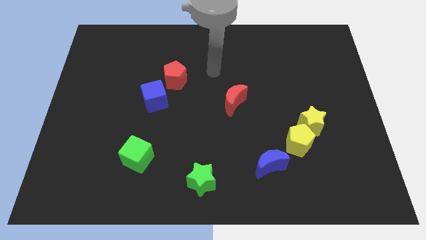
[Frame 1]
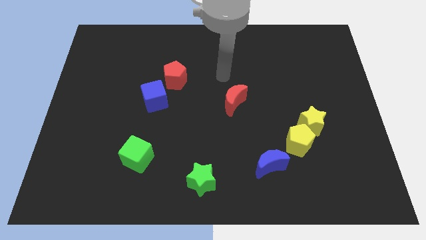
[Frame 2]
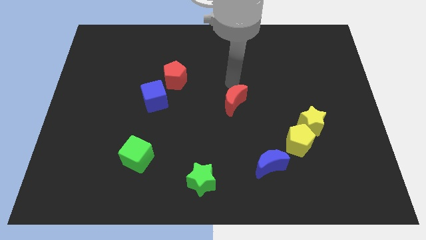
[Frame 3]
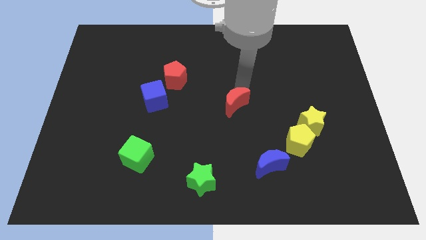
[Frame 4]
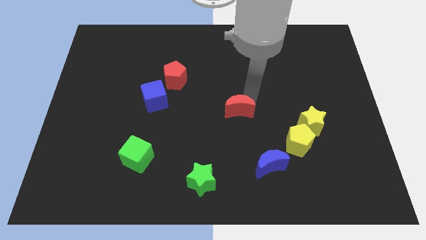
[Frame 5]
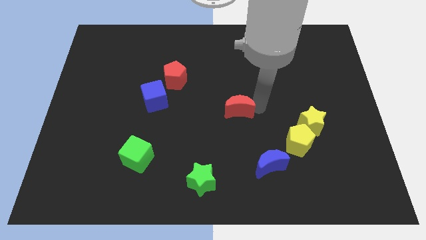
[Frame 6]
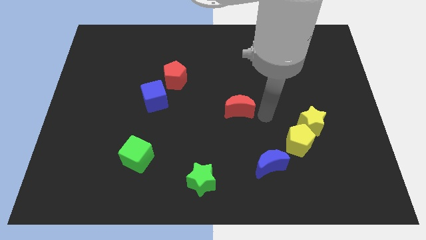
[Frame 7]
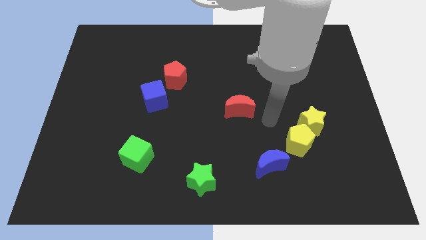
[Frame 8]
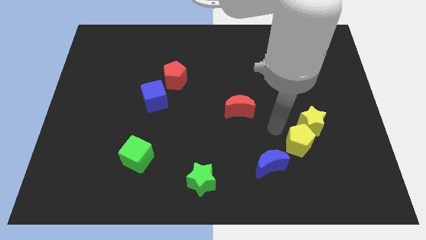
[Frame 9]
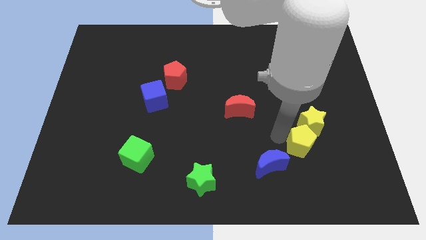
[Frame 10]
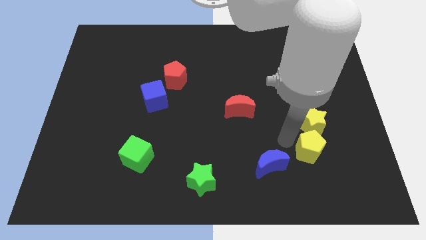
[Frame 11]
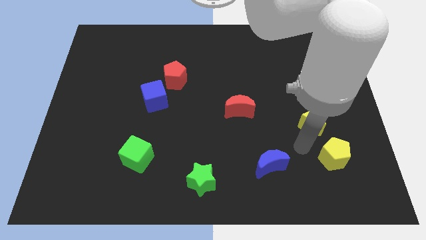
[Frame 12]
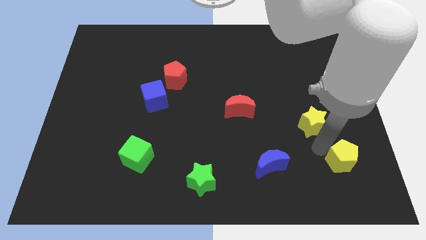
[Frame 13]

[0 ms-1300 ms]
move the yellow star away from the yellow pentagon

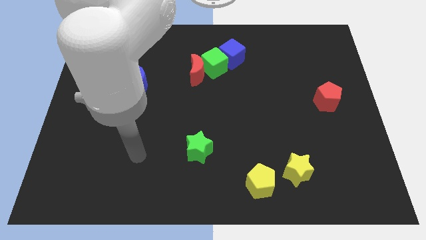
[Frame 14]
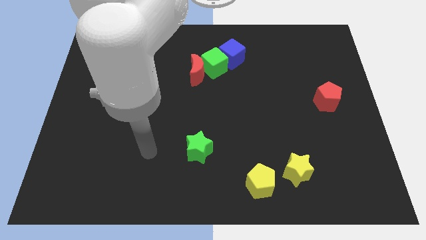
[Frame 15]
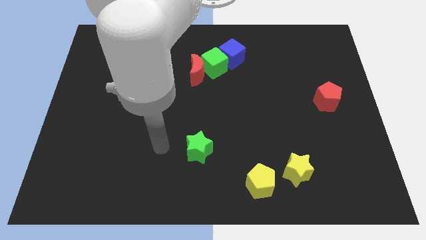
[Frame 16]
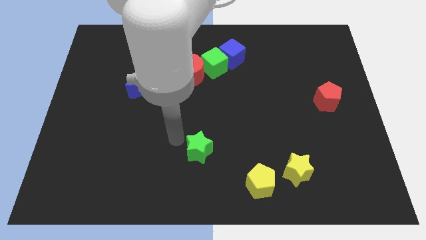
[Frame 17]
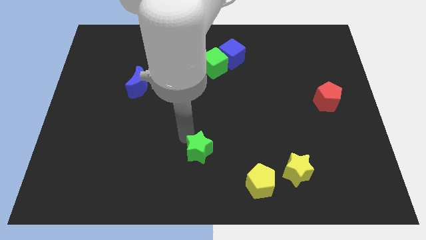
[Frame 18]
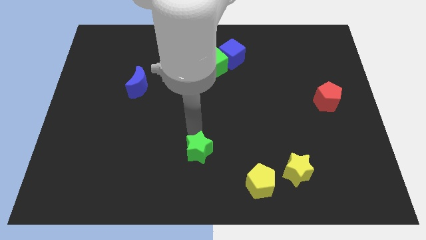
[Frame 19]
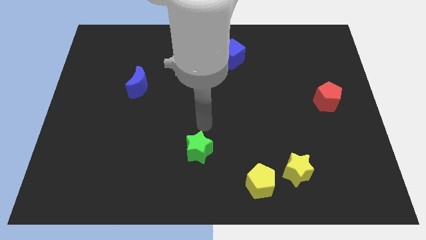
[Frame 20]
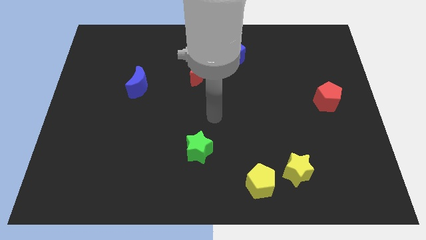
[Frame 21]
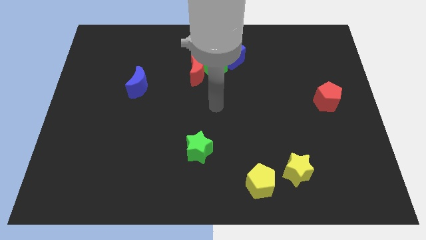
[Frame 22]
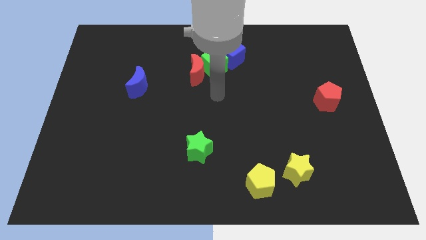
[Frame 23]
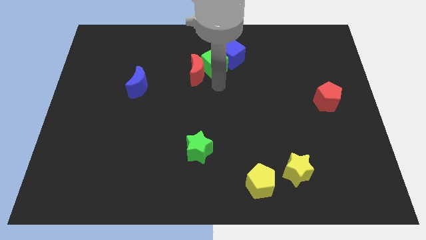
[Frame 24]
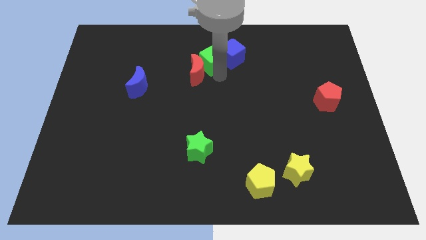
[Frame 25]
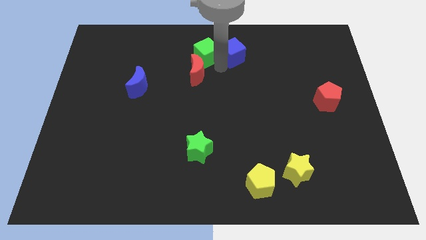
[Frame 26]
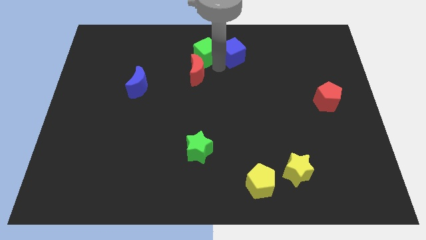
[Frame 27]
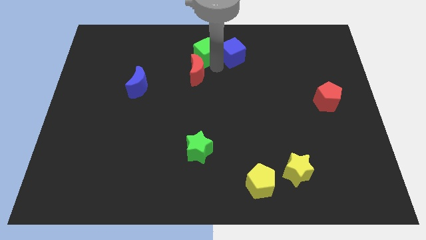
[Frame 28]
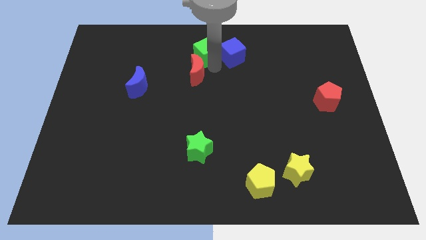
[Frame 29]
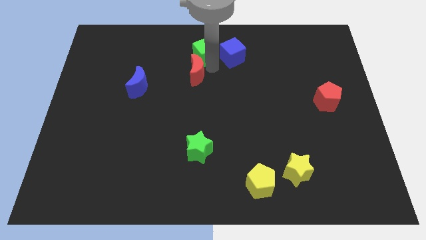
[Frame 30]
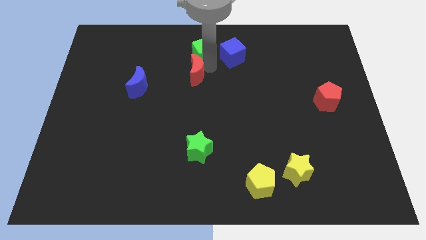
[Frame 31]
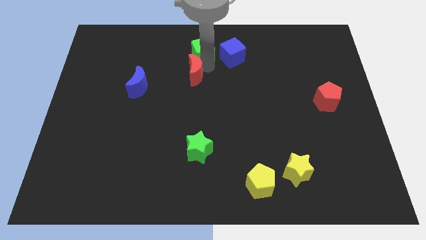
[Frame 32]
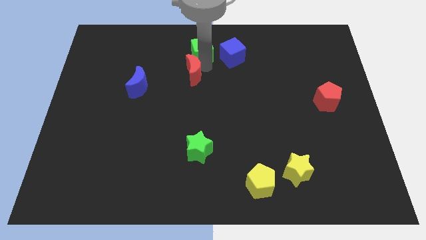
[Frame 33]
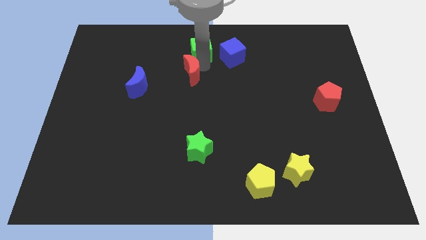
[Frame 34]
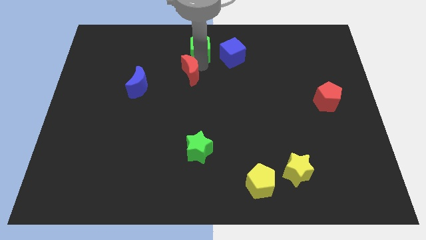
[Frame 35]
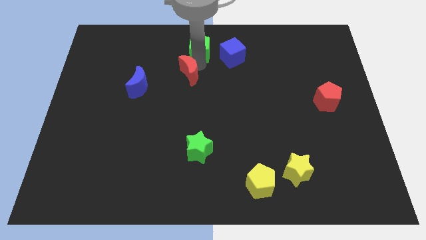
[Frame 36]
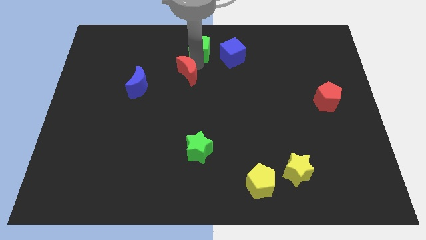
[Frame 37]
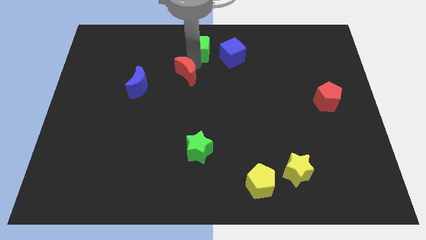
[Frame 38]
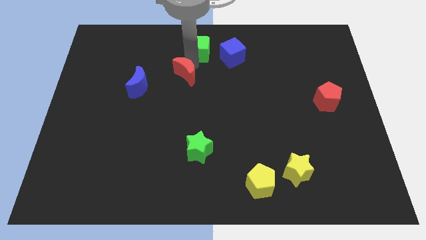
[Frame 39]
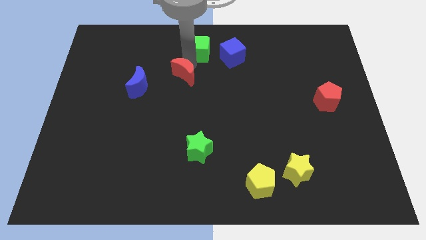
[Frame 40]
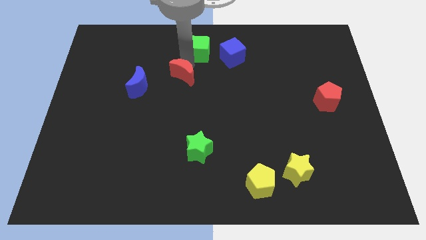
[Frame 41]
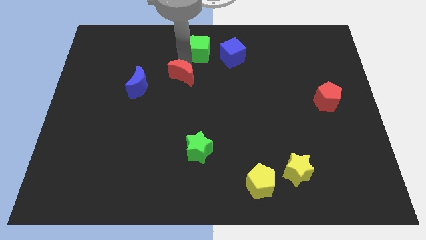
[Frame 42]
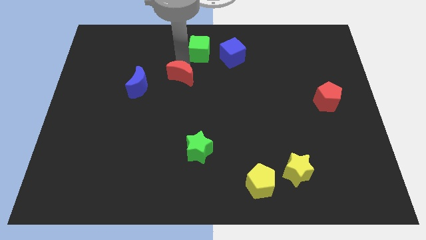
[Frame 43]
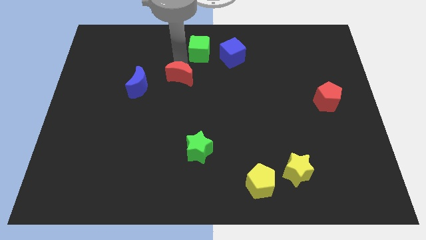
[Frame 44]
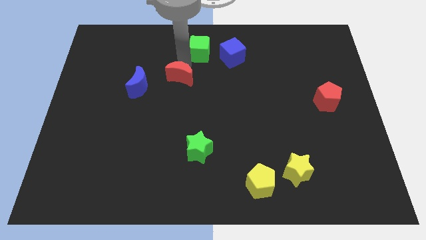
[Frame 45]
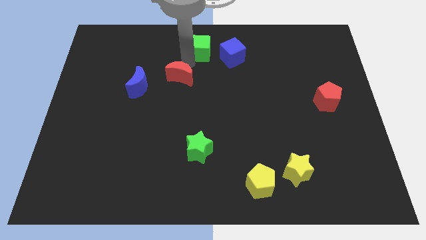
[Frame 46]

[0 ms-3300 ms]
separate the red moon from the green cube

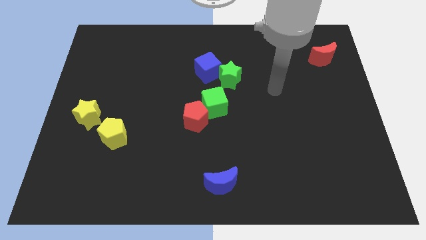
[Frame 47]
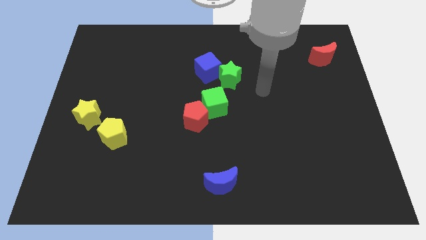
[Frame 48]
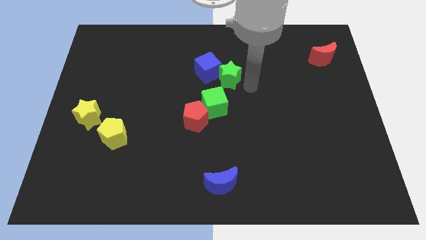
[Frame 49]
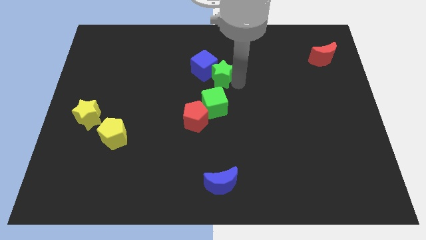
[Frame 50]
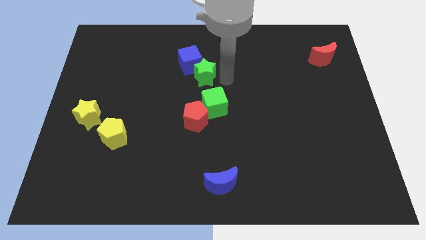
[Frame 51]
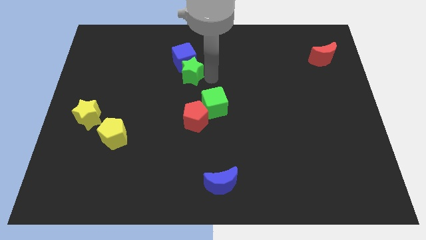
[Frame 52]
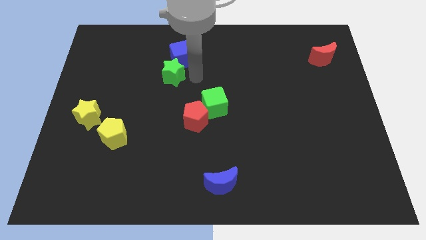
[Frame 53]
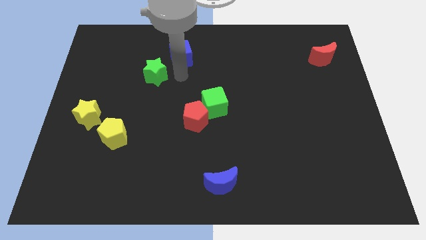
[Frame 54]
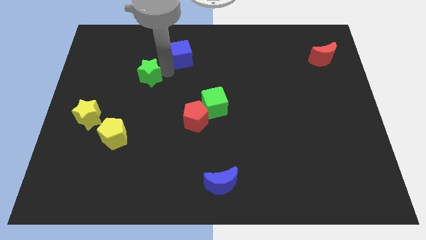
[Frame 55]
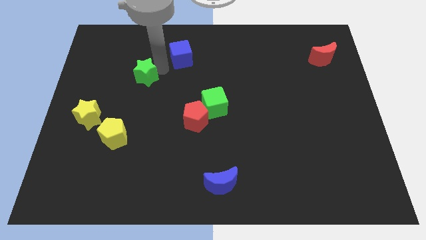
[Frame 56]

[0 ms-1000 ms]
separate the blue cube from the green star

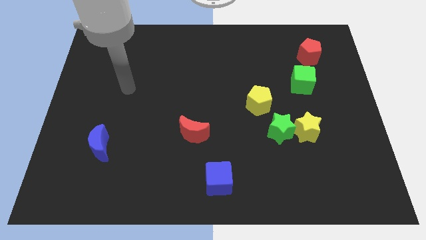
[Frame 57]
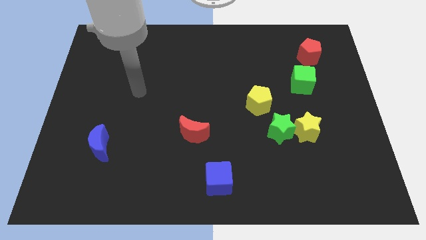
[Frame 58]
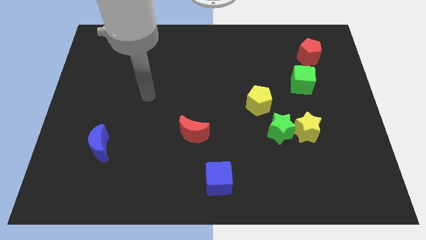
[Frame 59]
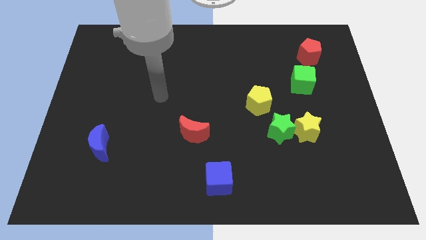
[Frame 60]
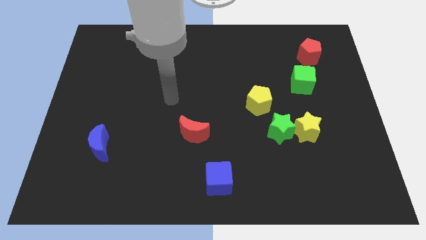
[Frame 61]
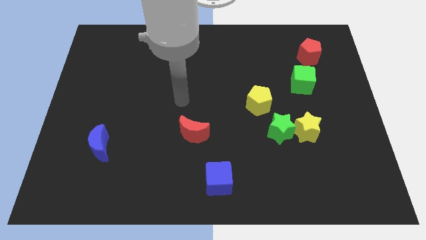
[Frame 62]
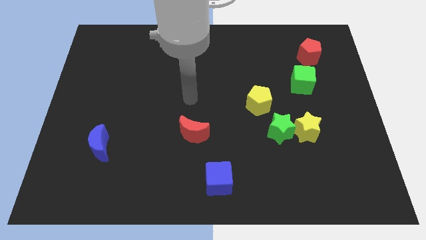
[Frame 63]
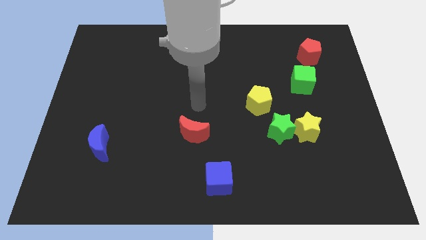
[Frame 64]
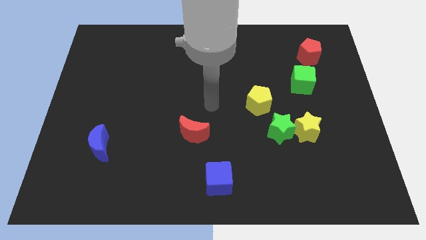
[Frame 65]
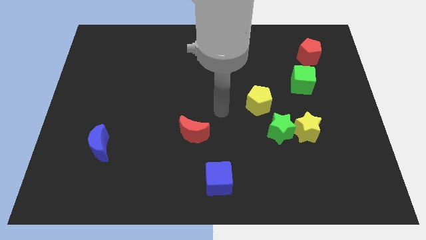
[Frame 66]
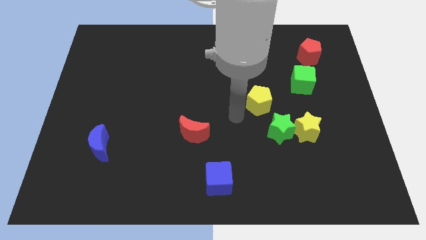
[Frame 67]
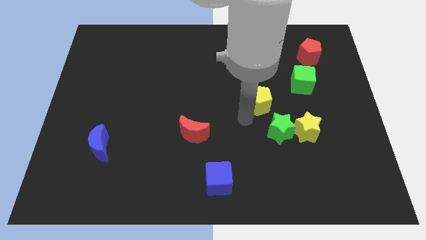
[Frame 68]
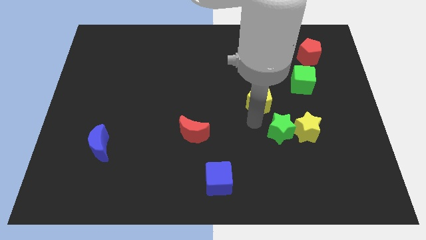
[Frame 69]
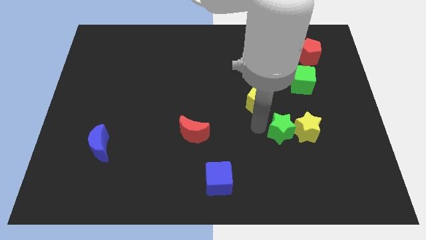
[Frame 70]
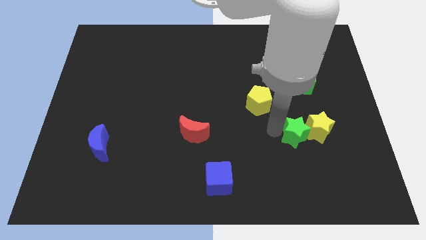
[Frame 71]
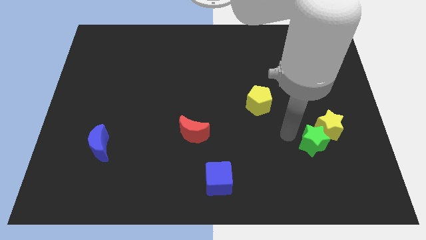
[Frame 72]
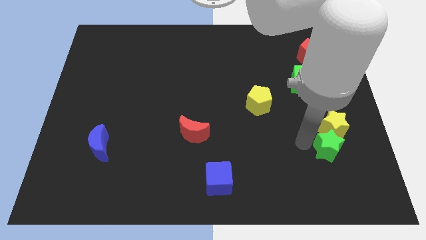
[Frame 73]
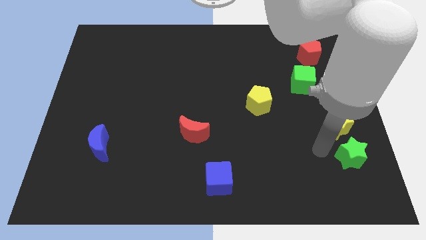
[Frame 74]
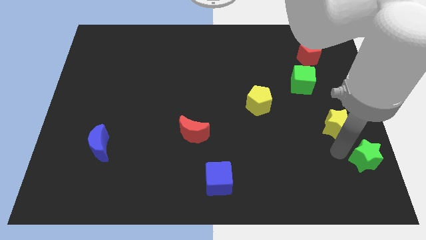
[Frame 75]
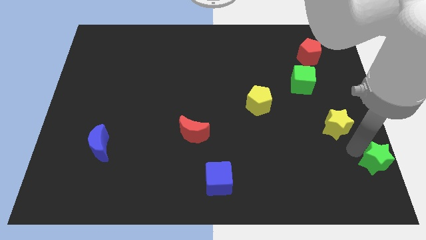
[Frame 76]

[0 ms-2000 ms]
pull the yellow star apart from the green star

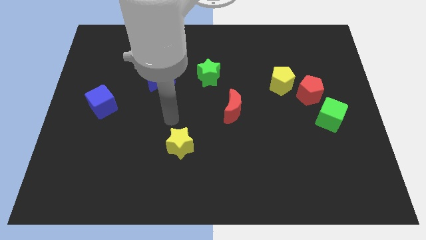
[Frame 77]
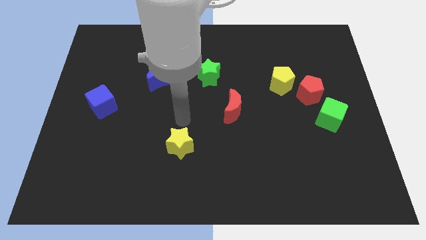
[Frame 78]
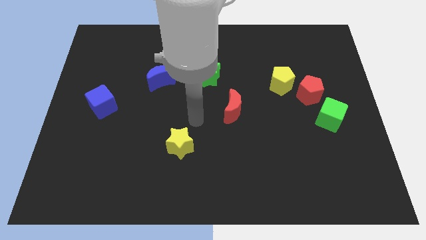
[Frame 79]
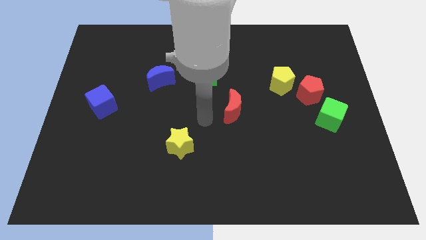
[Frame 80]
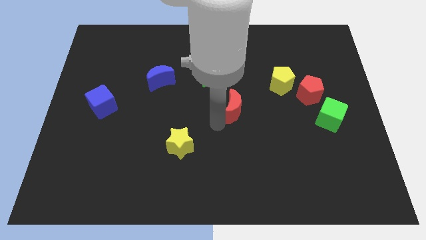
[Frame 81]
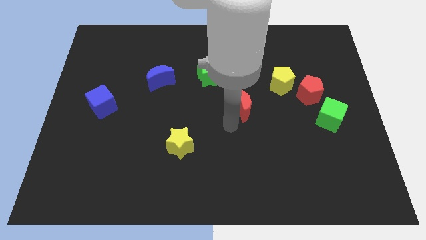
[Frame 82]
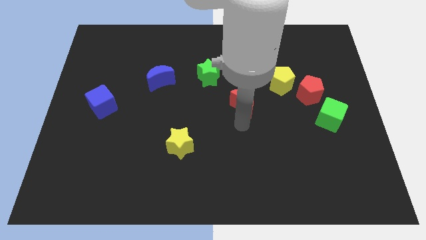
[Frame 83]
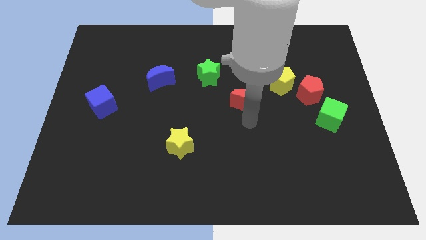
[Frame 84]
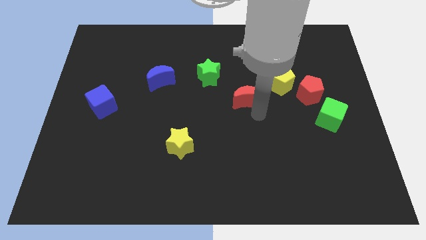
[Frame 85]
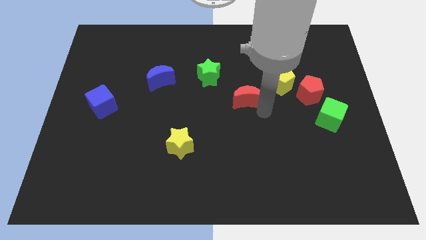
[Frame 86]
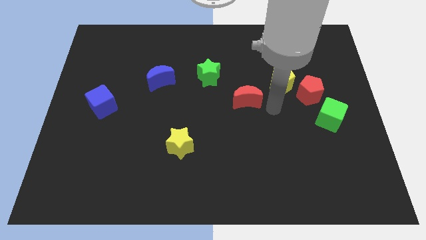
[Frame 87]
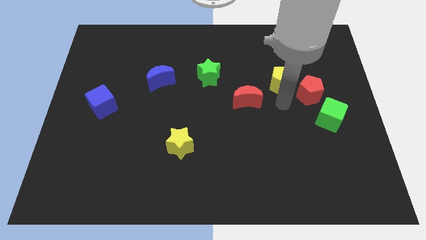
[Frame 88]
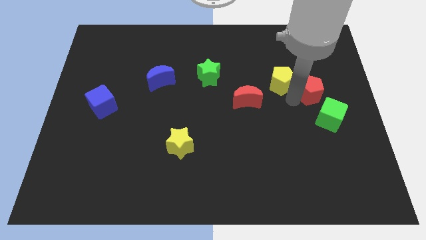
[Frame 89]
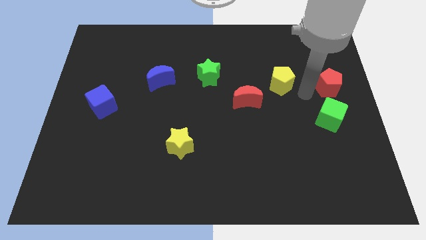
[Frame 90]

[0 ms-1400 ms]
move the yellow pentagon away from the red pentagon

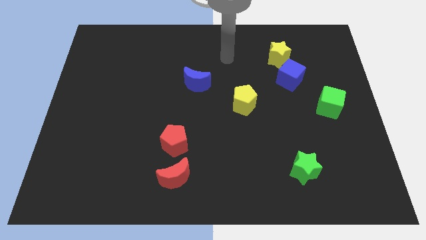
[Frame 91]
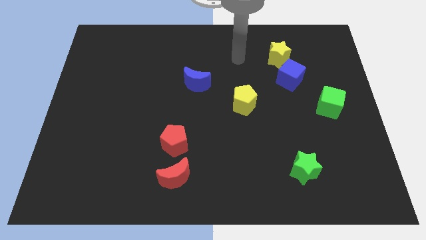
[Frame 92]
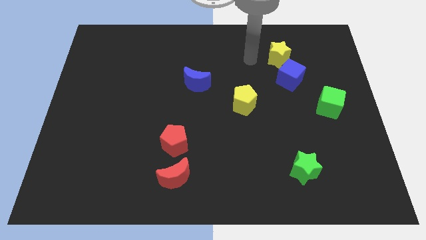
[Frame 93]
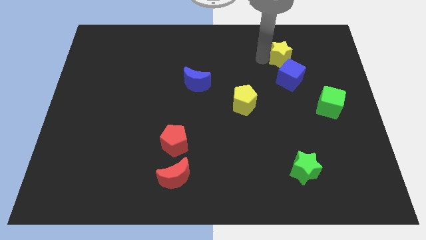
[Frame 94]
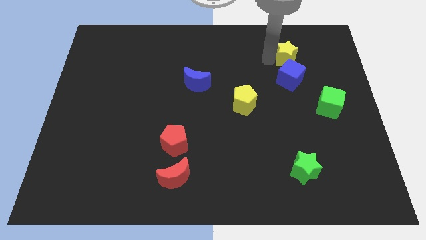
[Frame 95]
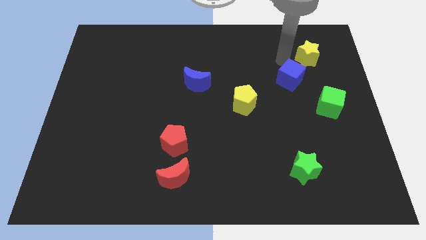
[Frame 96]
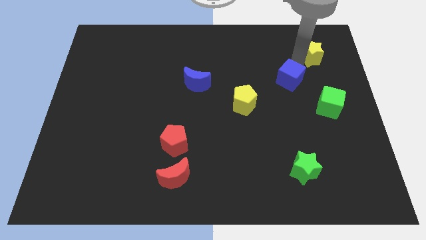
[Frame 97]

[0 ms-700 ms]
separate the blue cube from the yellow star
